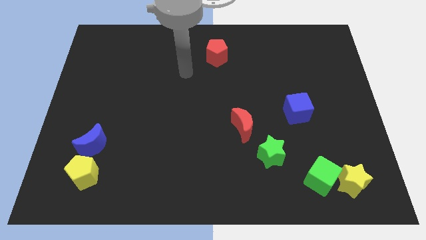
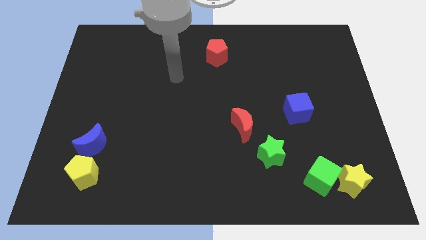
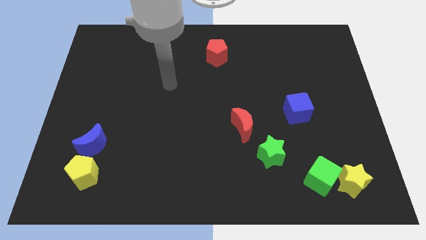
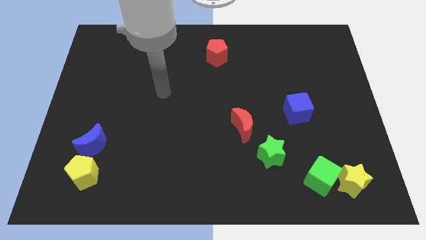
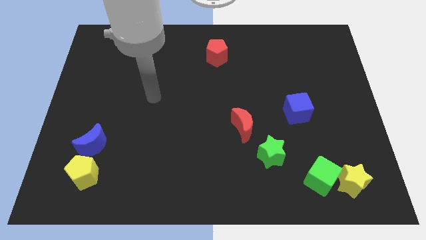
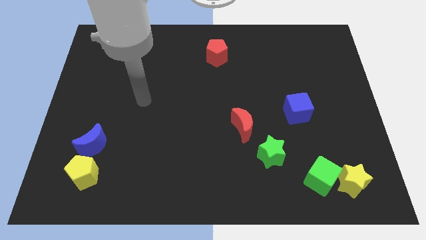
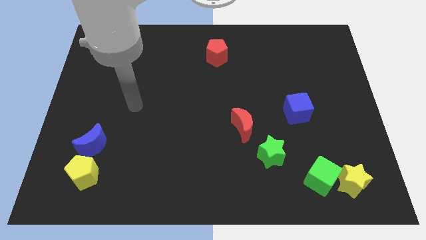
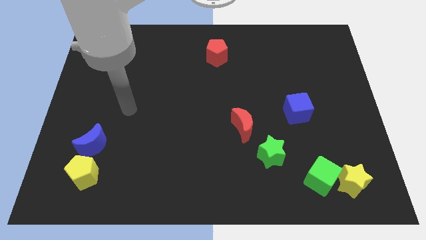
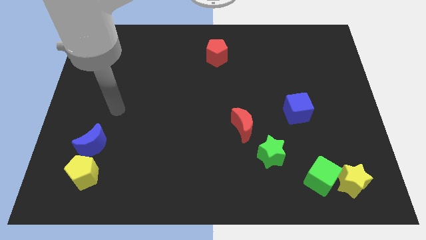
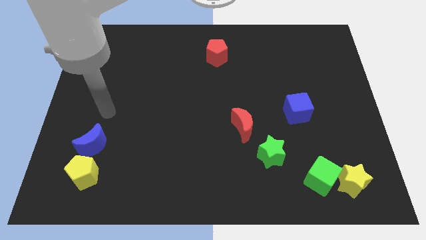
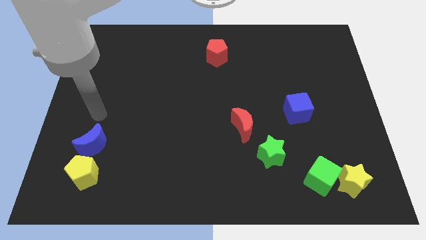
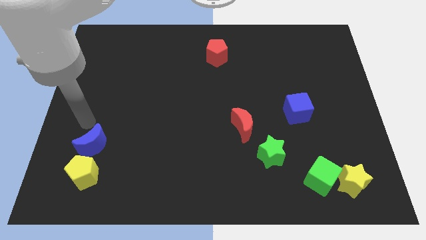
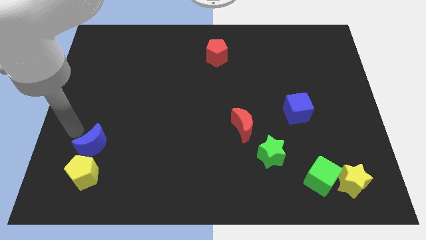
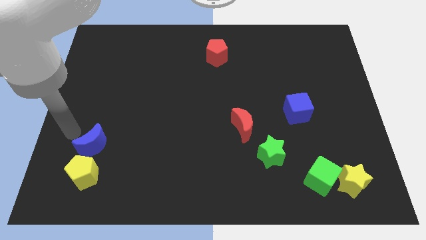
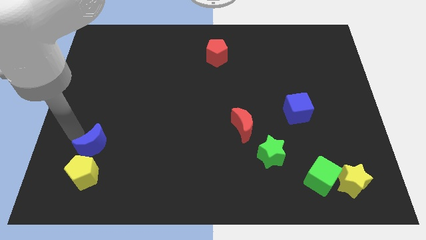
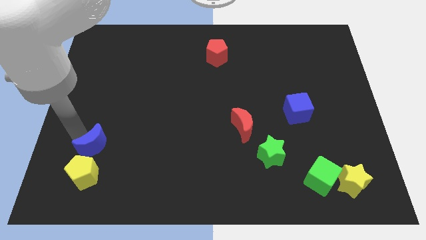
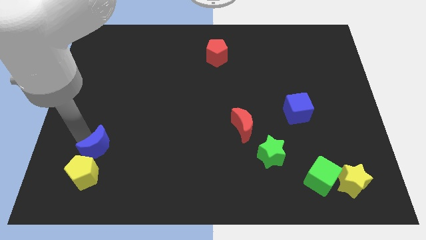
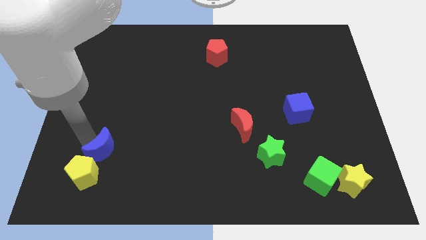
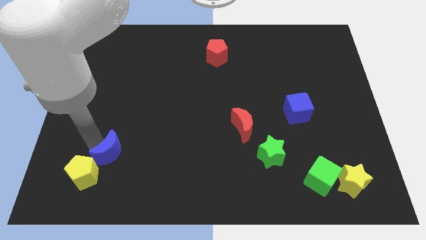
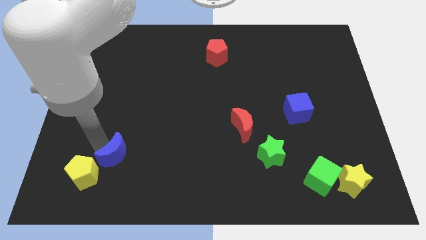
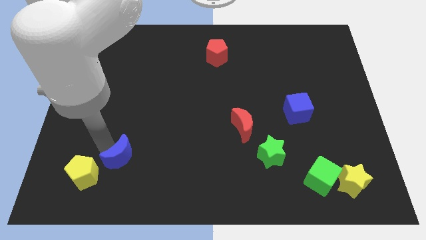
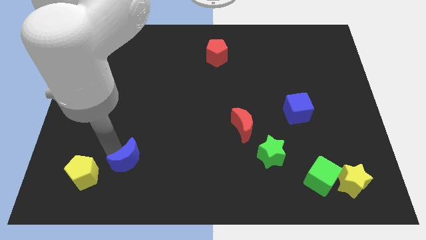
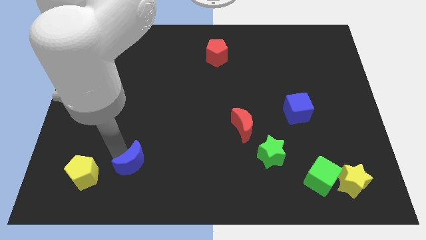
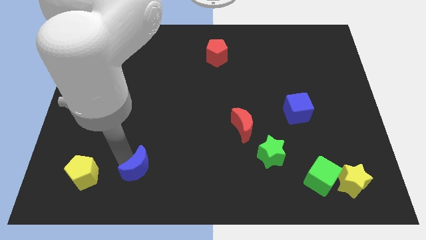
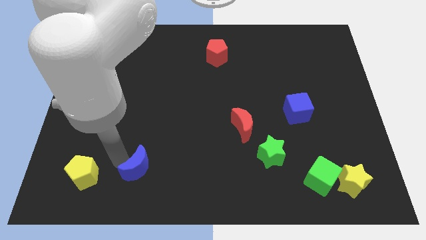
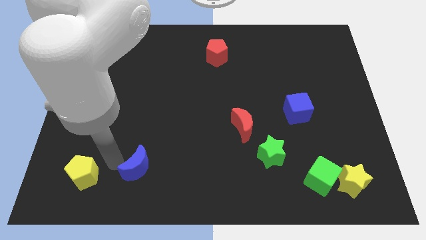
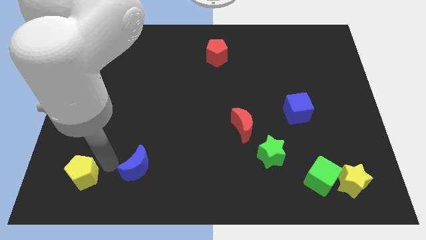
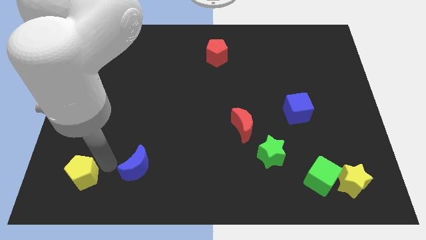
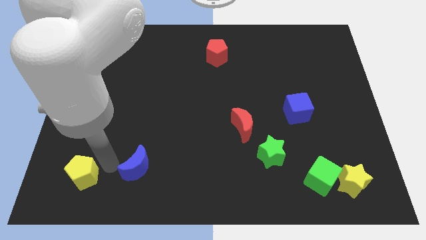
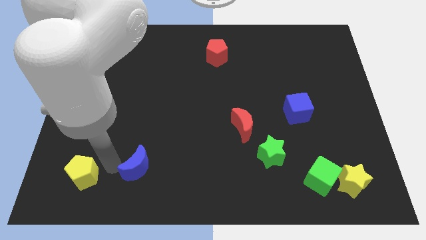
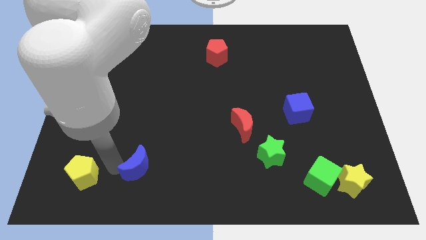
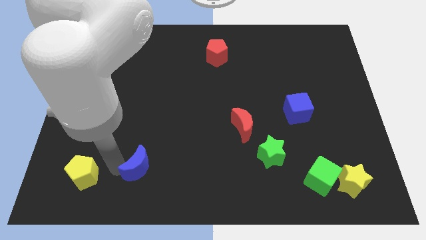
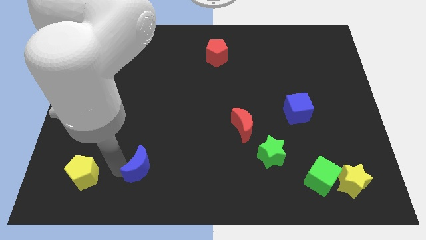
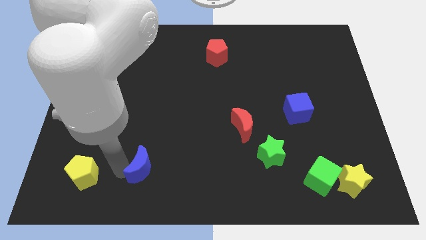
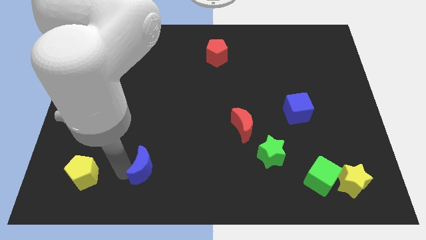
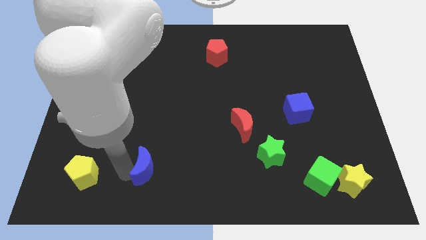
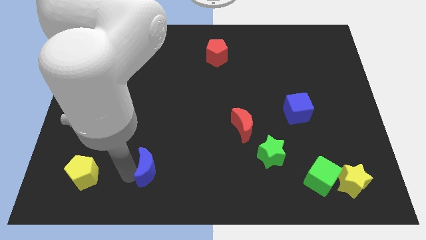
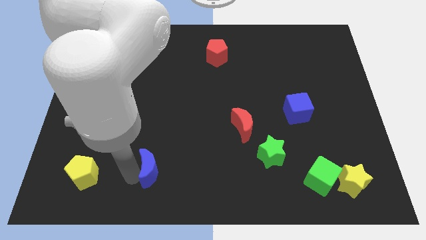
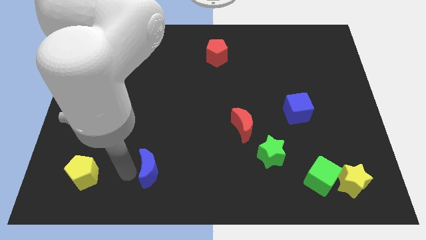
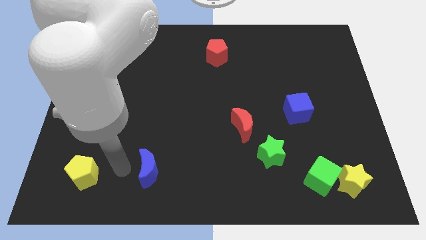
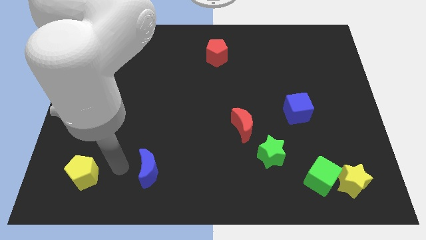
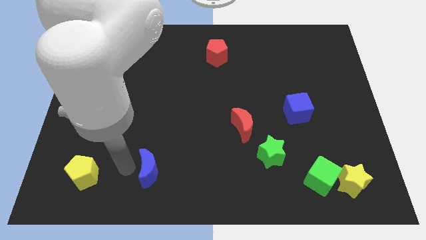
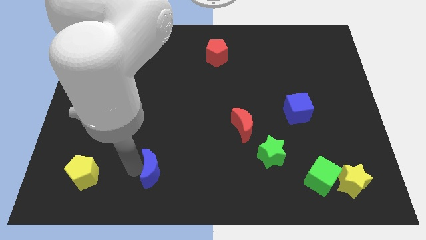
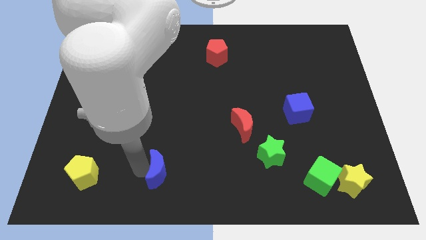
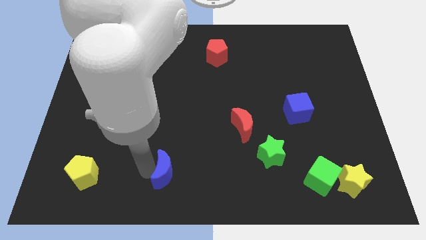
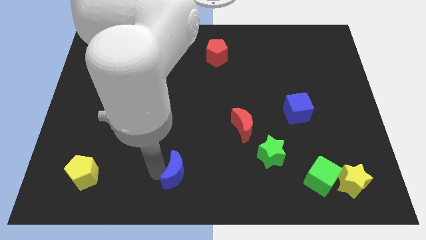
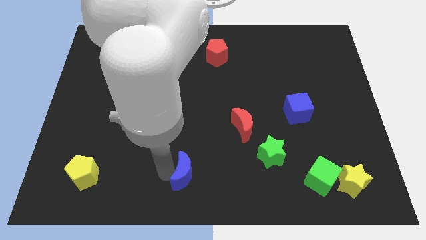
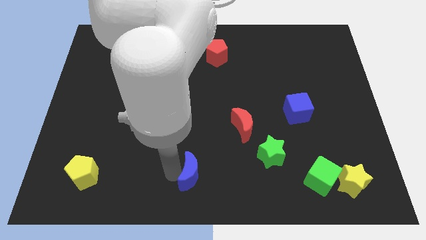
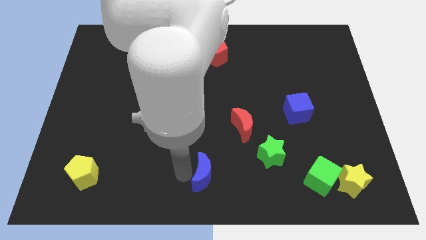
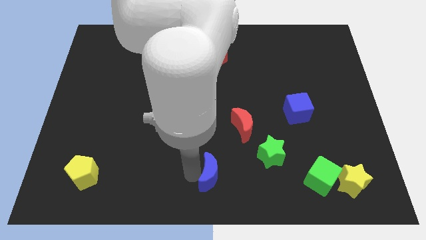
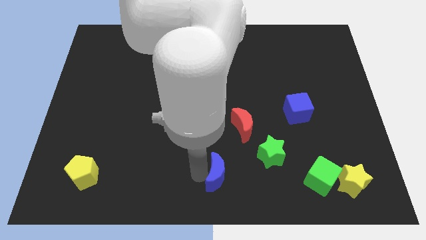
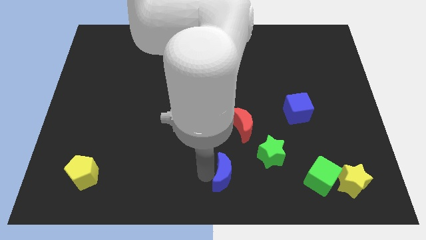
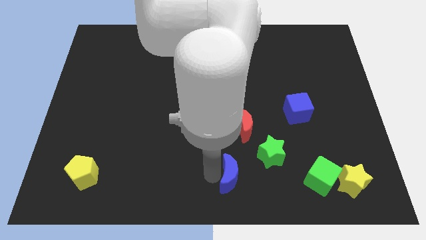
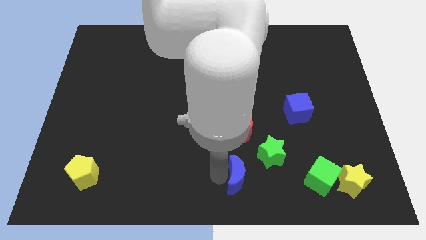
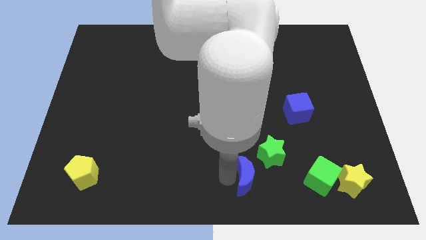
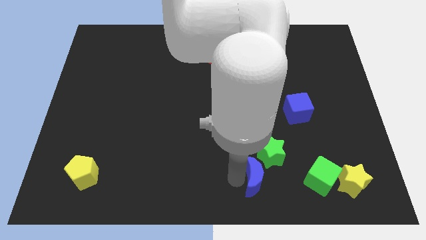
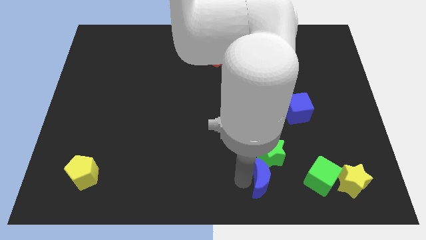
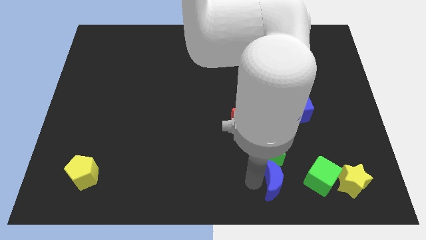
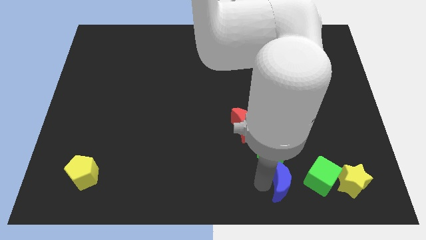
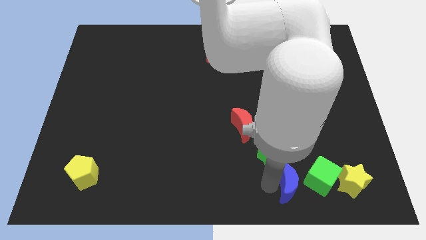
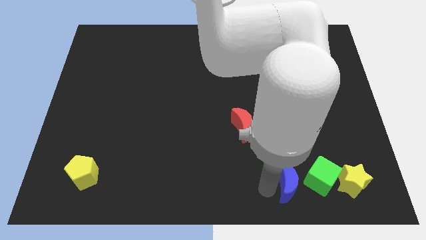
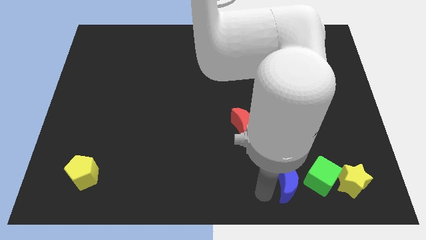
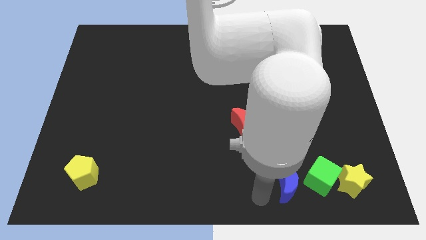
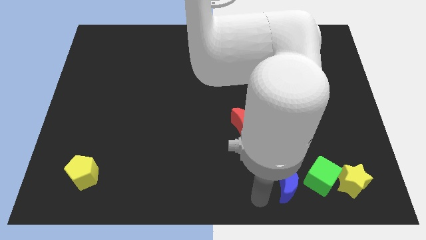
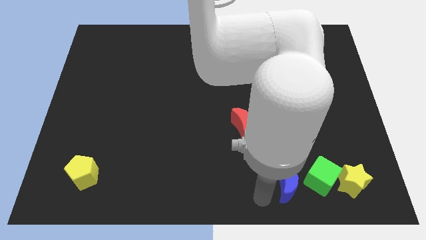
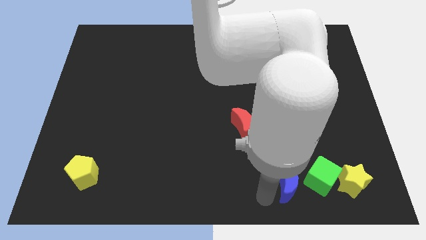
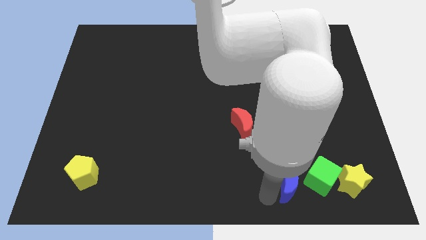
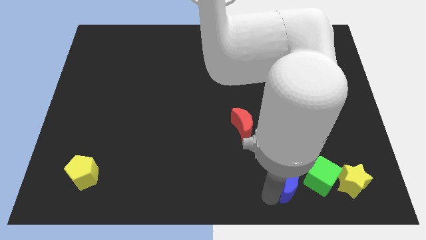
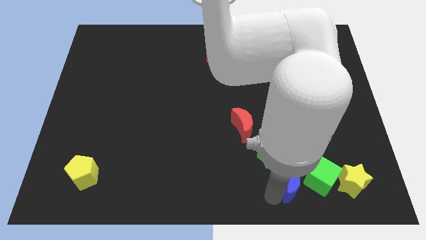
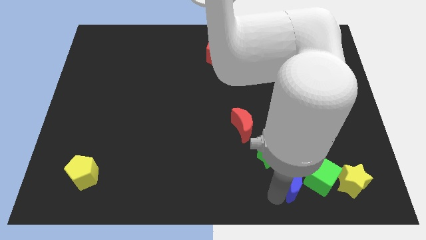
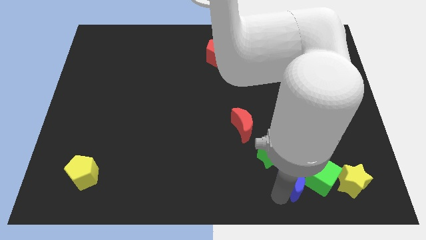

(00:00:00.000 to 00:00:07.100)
slide the blue moon to the green cube

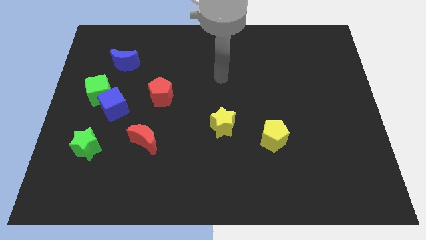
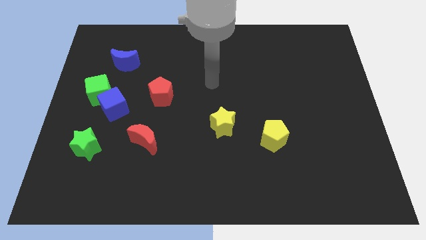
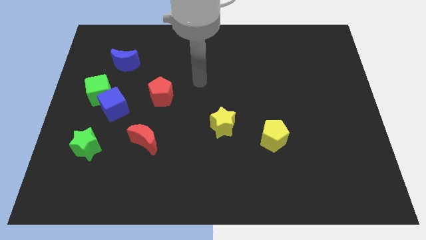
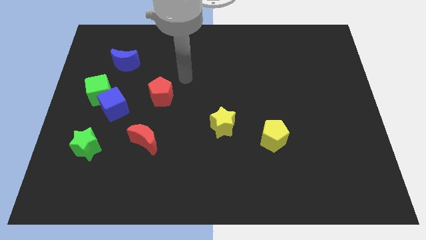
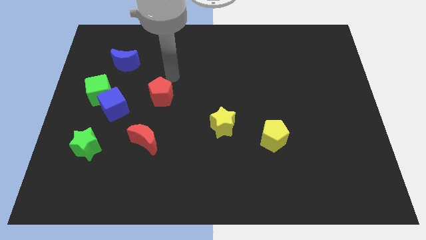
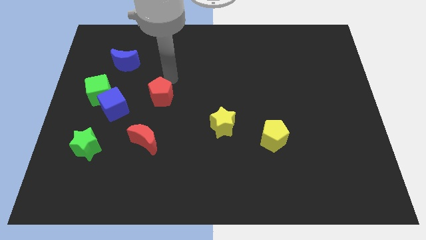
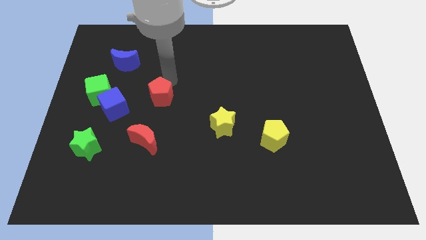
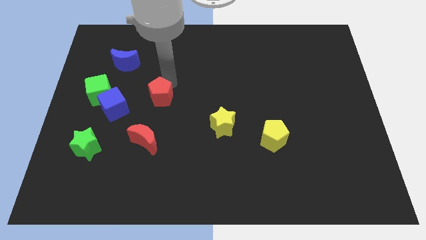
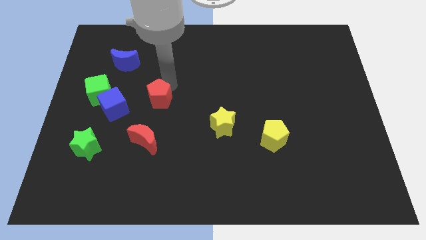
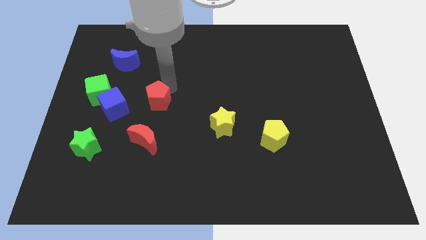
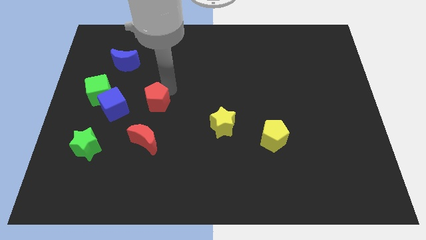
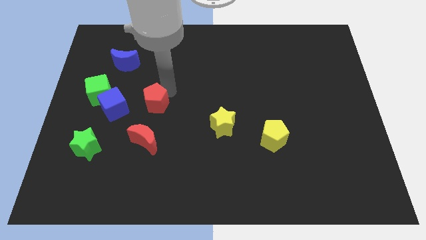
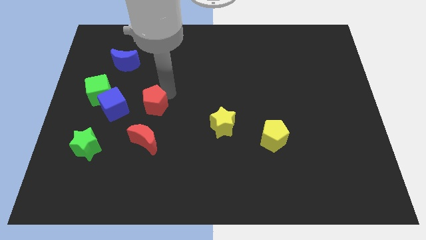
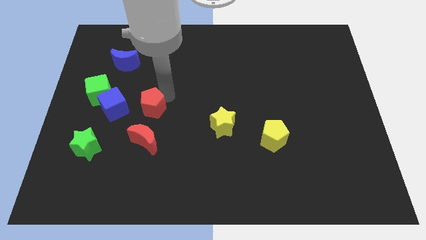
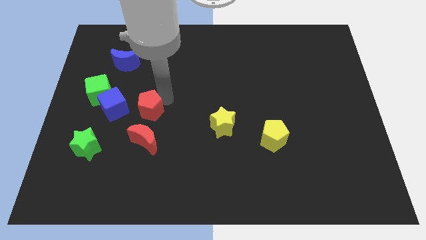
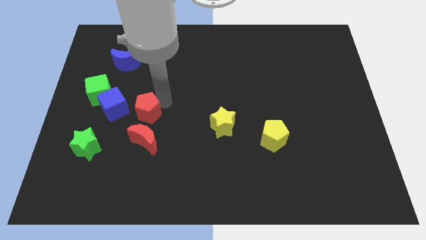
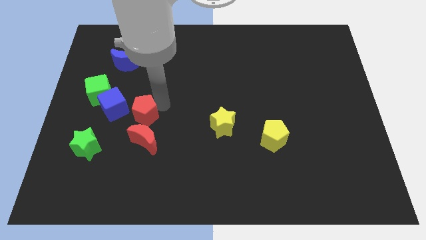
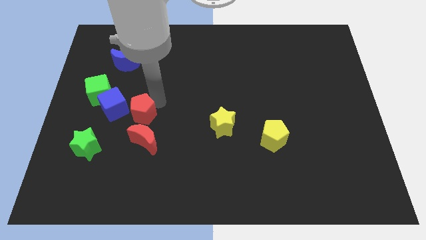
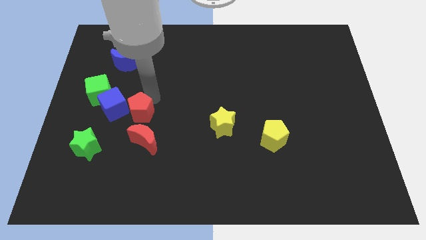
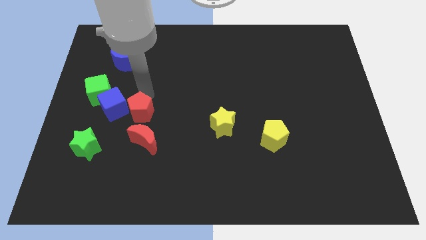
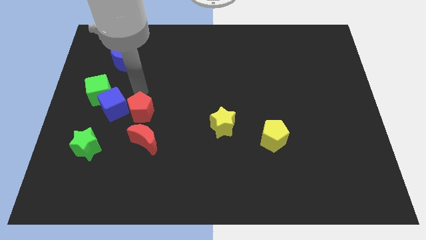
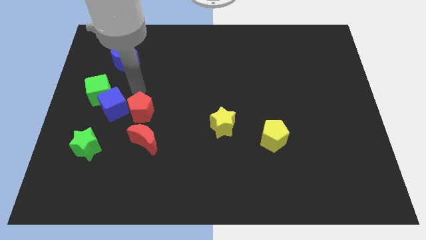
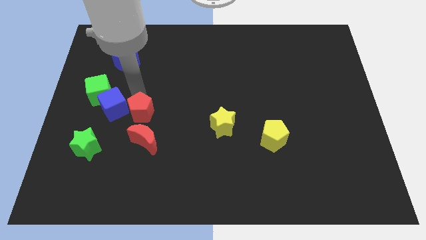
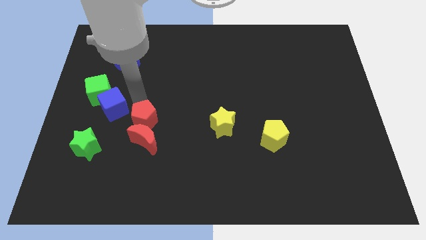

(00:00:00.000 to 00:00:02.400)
put the red pentagon towards the red moon
